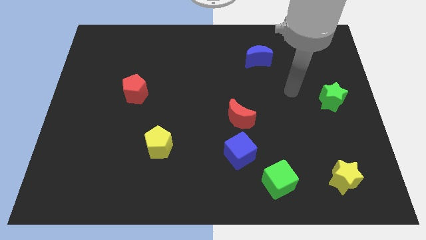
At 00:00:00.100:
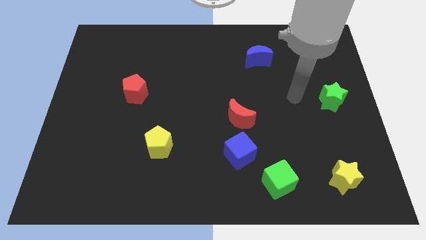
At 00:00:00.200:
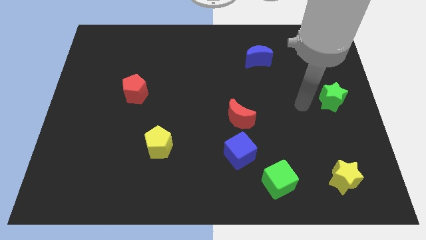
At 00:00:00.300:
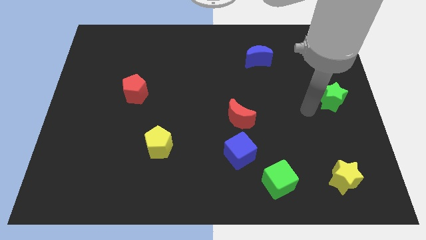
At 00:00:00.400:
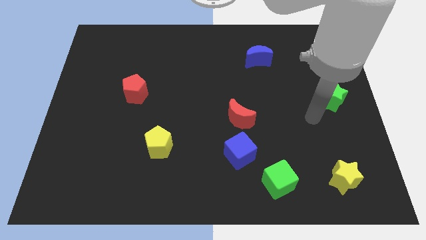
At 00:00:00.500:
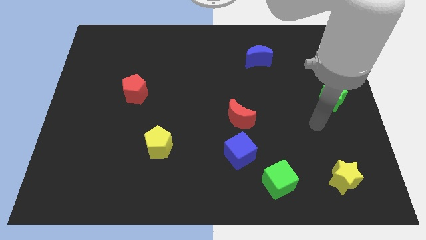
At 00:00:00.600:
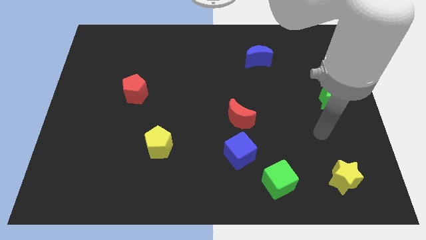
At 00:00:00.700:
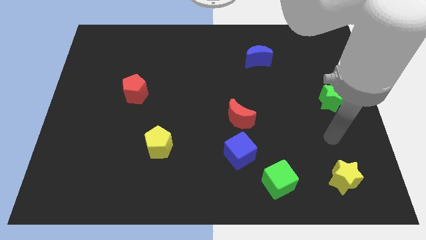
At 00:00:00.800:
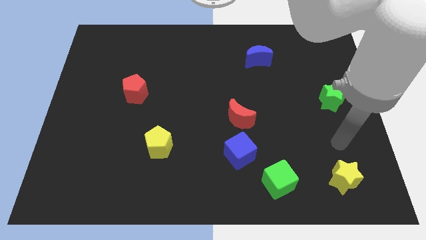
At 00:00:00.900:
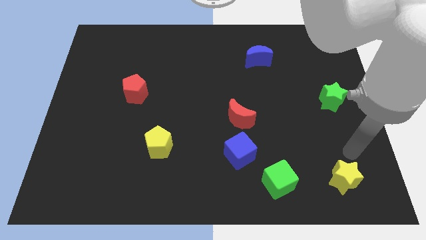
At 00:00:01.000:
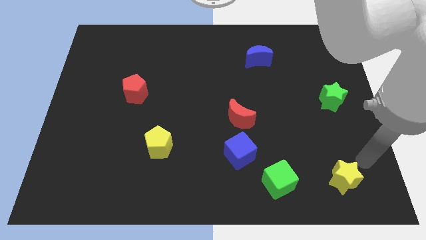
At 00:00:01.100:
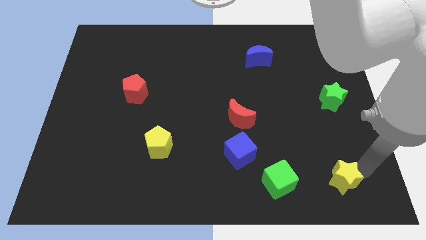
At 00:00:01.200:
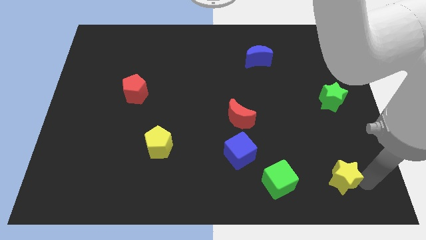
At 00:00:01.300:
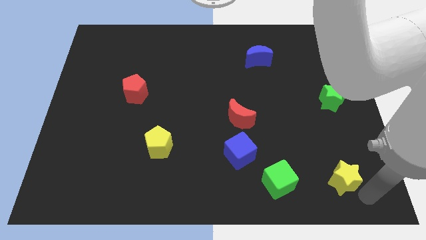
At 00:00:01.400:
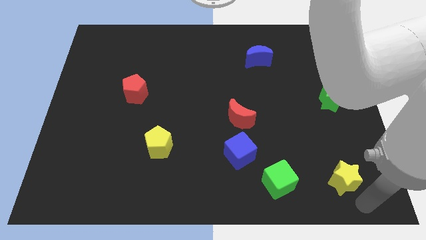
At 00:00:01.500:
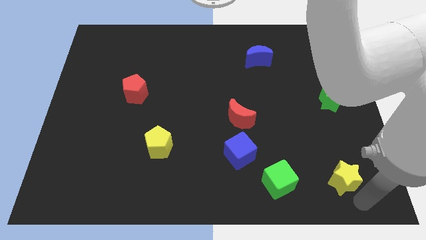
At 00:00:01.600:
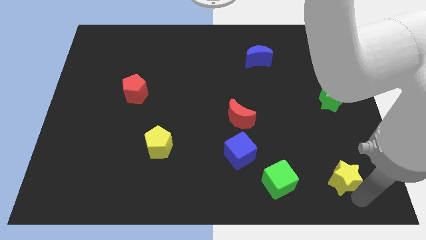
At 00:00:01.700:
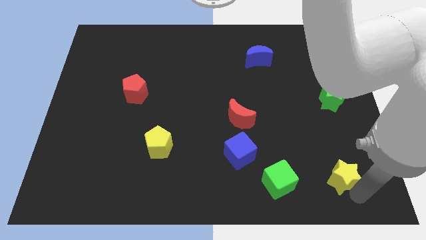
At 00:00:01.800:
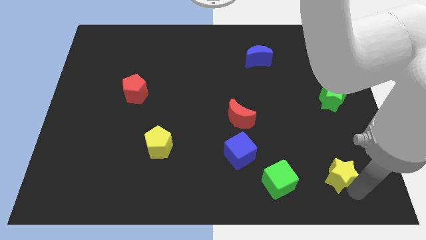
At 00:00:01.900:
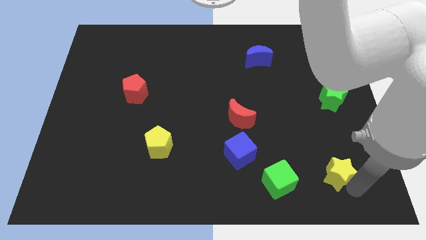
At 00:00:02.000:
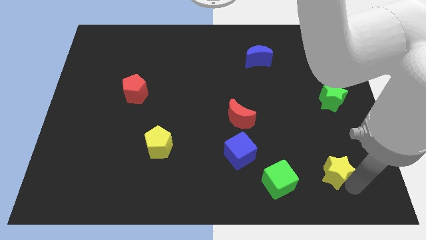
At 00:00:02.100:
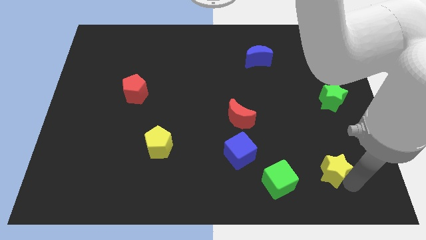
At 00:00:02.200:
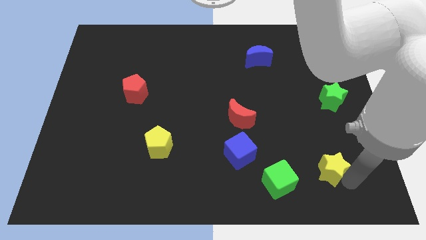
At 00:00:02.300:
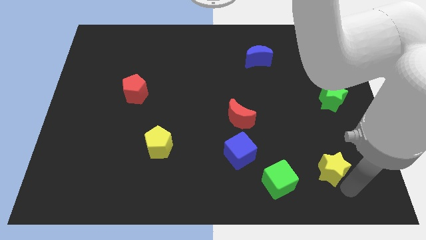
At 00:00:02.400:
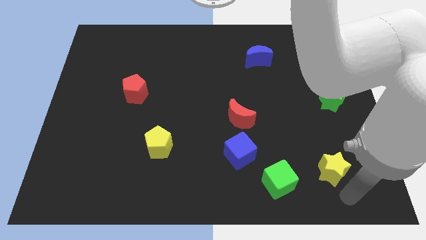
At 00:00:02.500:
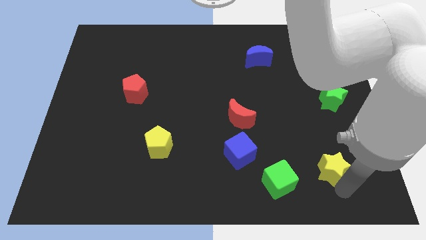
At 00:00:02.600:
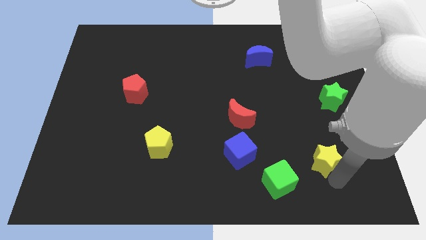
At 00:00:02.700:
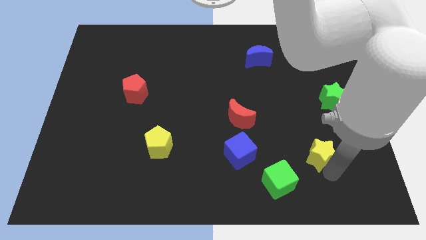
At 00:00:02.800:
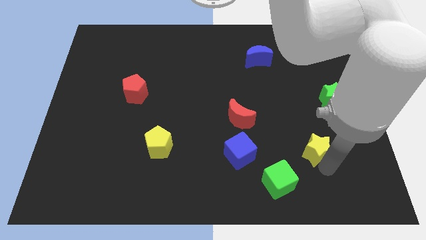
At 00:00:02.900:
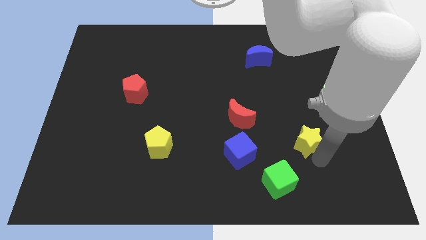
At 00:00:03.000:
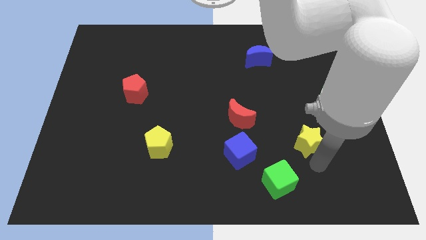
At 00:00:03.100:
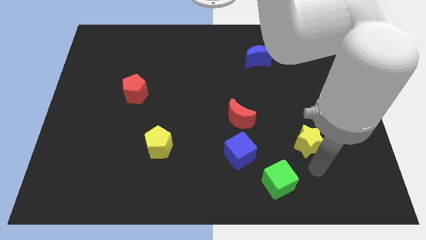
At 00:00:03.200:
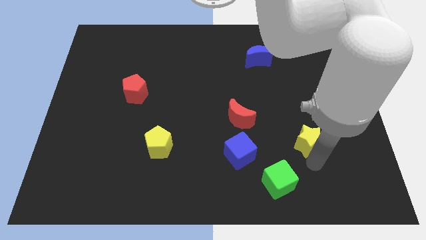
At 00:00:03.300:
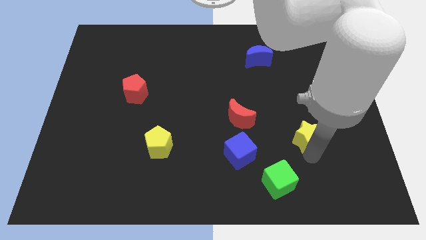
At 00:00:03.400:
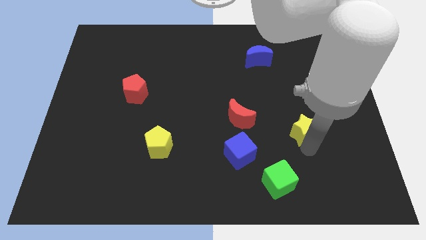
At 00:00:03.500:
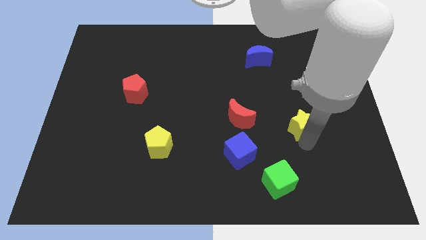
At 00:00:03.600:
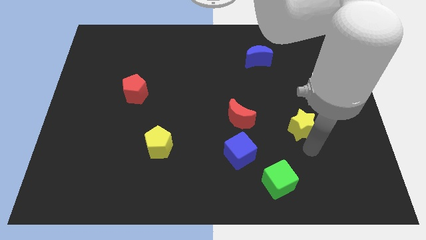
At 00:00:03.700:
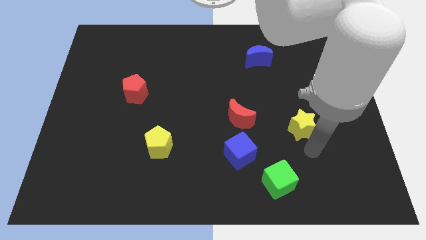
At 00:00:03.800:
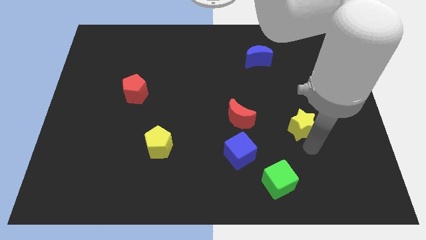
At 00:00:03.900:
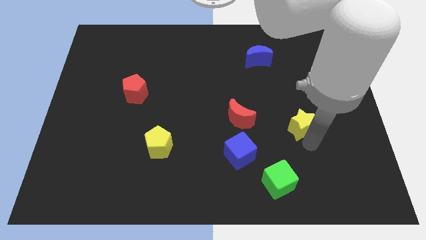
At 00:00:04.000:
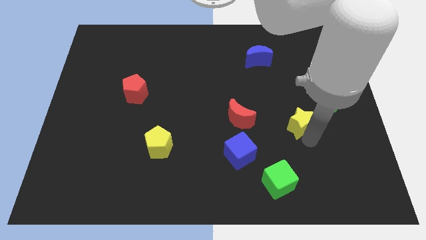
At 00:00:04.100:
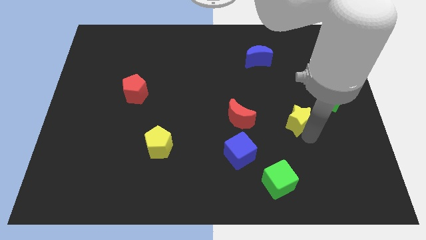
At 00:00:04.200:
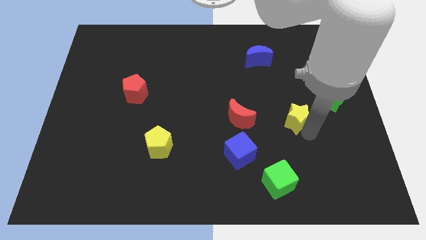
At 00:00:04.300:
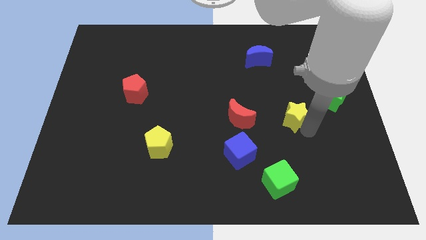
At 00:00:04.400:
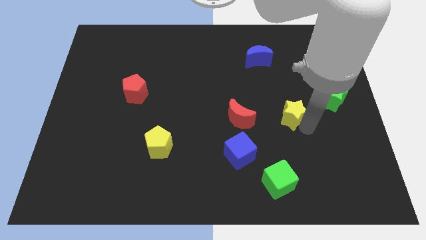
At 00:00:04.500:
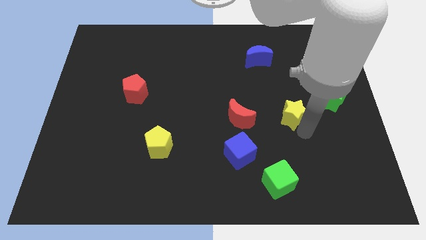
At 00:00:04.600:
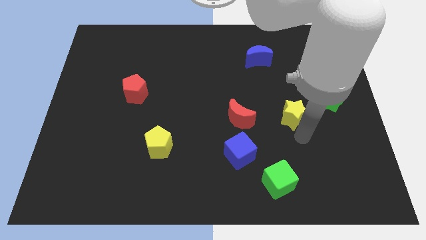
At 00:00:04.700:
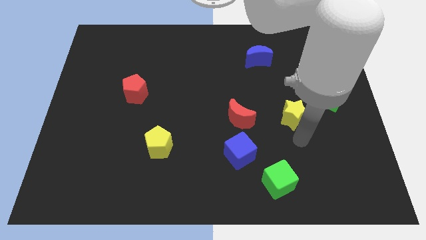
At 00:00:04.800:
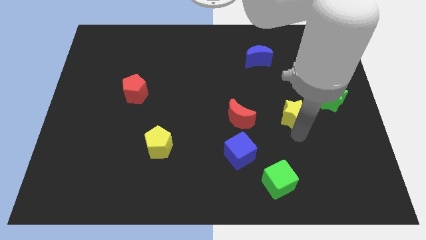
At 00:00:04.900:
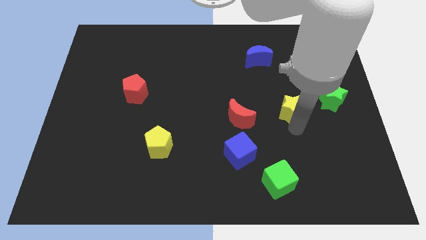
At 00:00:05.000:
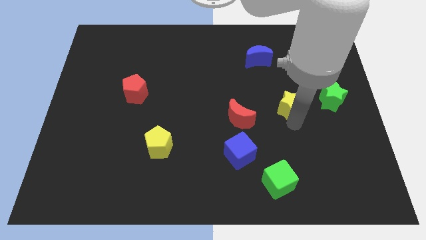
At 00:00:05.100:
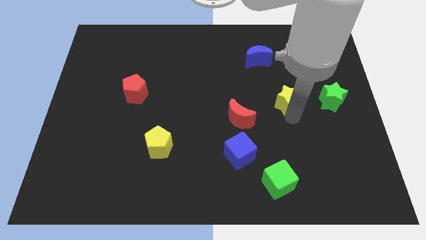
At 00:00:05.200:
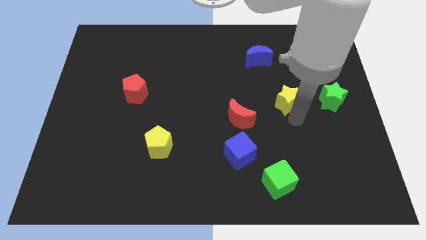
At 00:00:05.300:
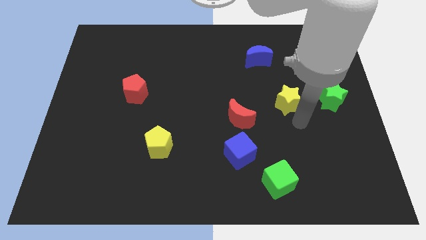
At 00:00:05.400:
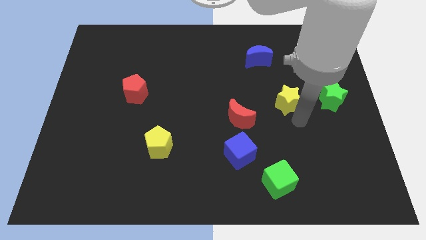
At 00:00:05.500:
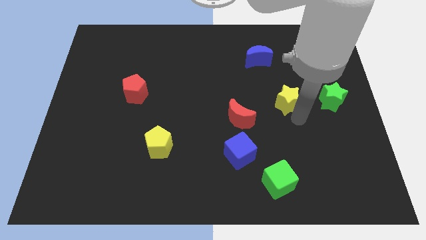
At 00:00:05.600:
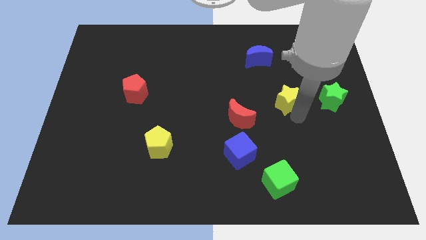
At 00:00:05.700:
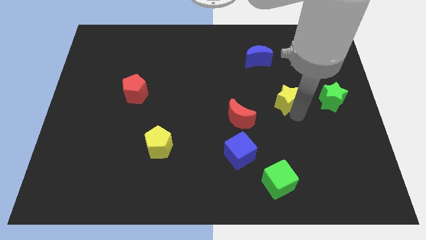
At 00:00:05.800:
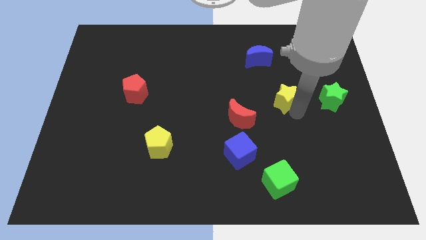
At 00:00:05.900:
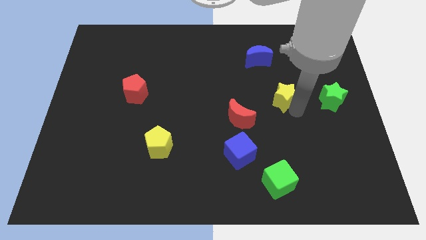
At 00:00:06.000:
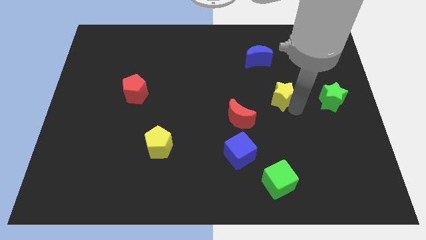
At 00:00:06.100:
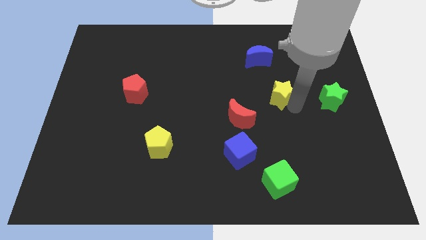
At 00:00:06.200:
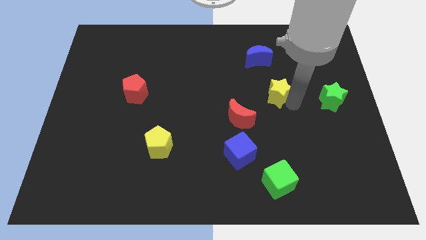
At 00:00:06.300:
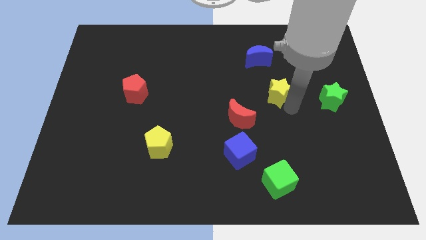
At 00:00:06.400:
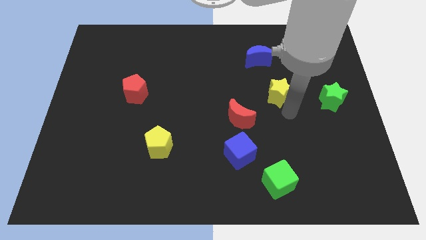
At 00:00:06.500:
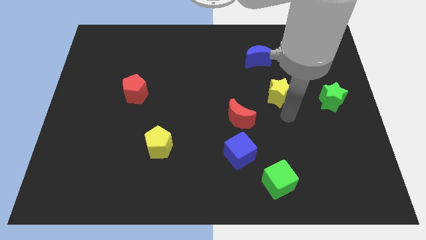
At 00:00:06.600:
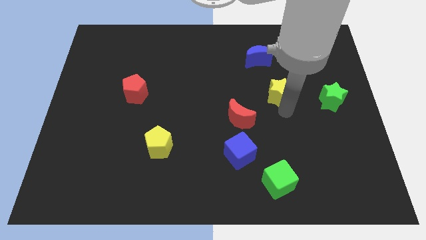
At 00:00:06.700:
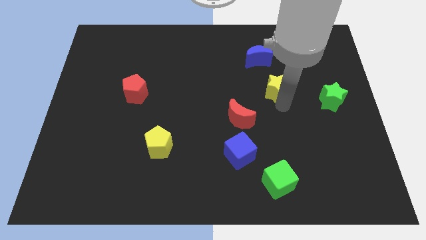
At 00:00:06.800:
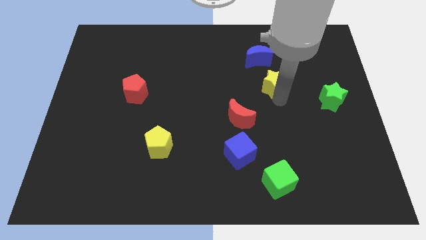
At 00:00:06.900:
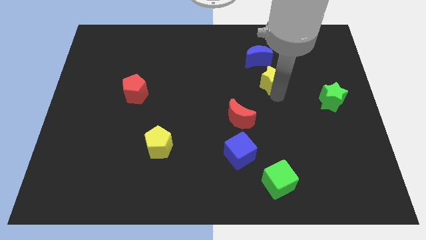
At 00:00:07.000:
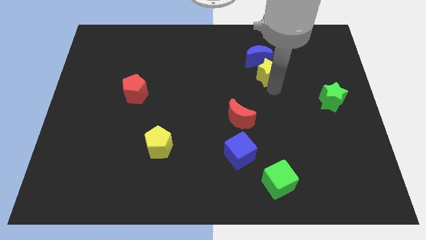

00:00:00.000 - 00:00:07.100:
push the yellow star towards the blue moon
